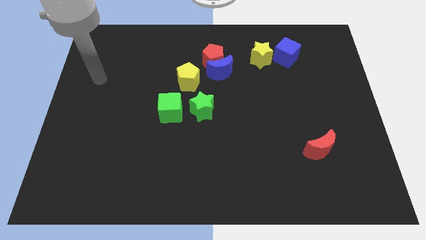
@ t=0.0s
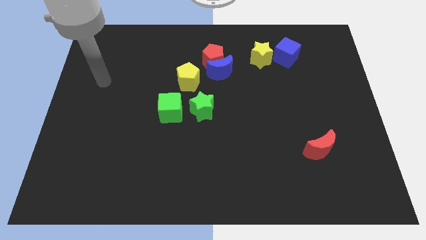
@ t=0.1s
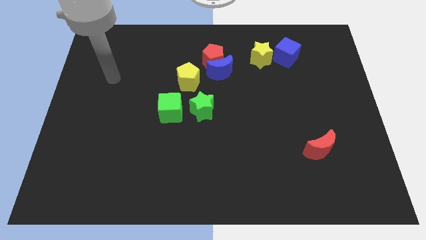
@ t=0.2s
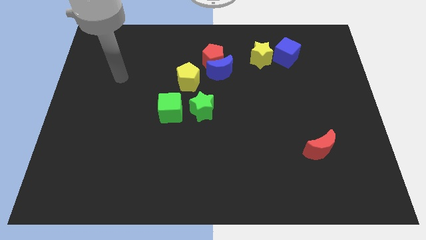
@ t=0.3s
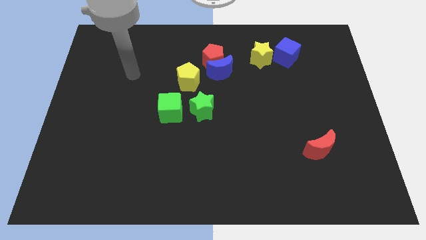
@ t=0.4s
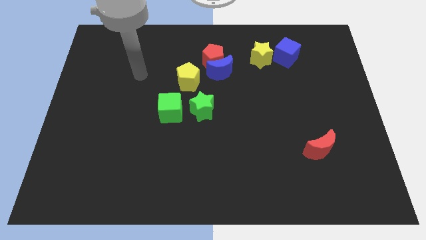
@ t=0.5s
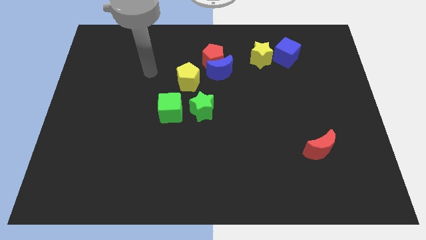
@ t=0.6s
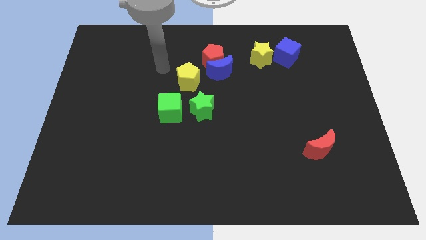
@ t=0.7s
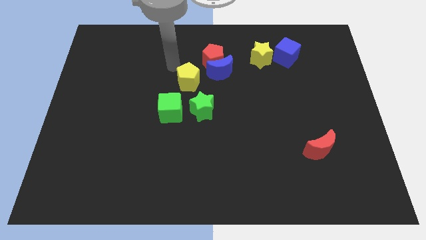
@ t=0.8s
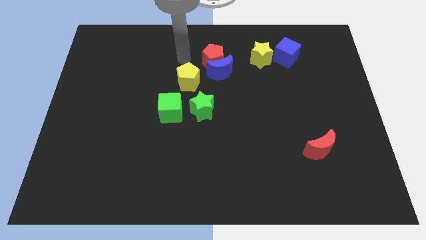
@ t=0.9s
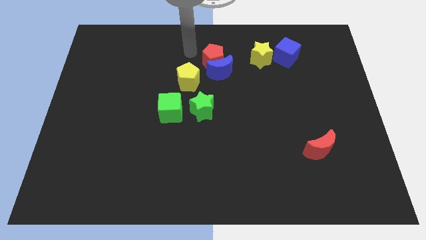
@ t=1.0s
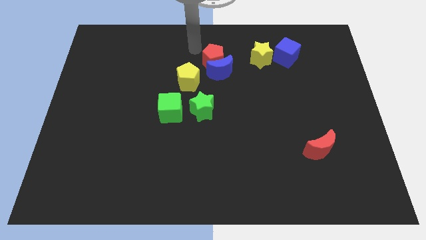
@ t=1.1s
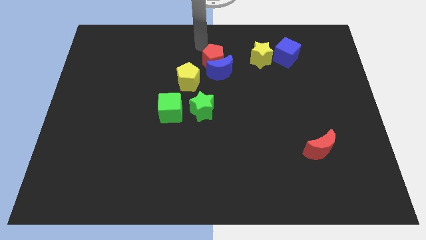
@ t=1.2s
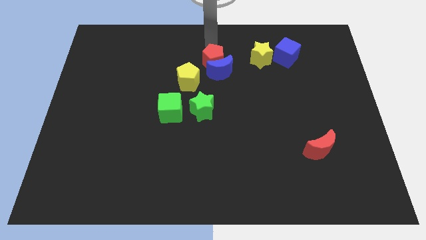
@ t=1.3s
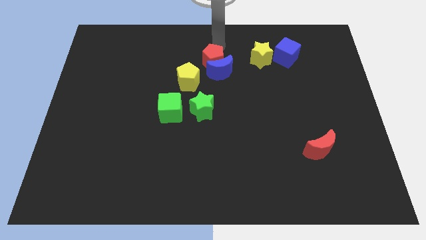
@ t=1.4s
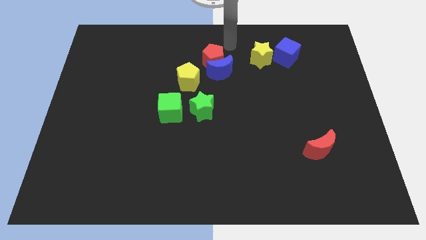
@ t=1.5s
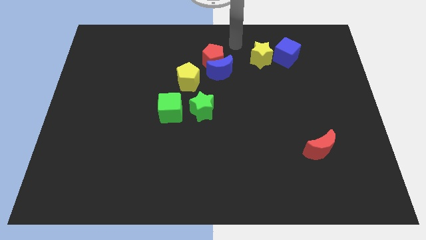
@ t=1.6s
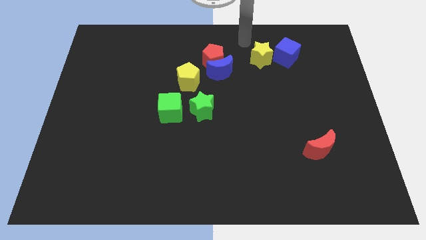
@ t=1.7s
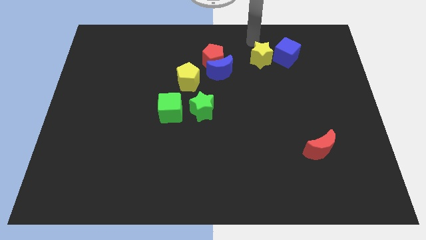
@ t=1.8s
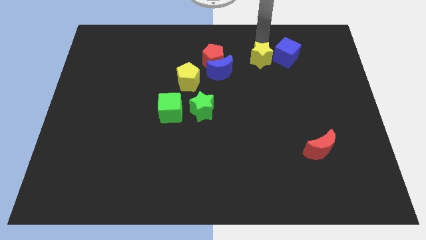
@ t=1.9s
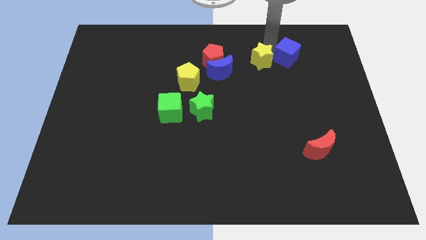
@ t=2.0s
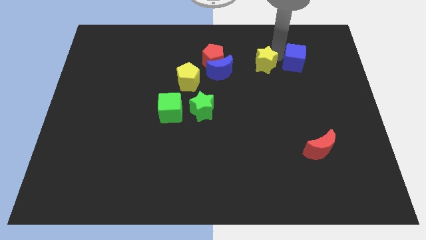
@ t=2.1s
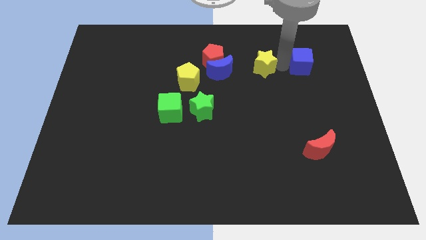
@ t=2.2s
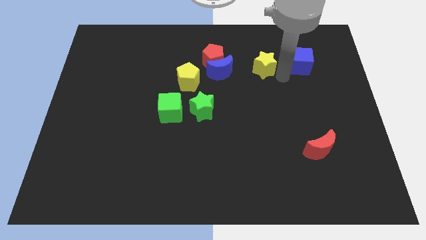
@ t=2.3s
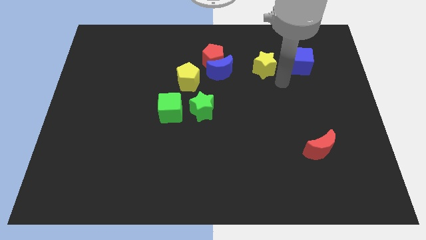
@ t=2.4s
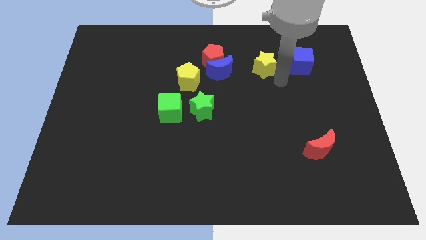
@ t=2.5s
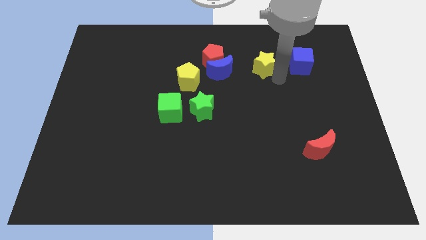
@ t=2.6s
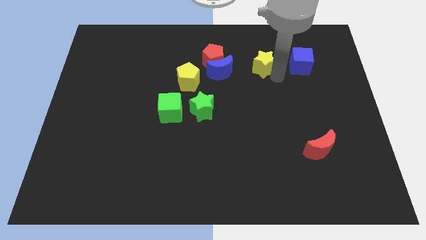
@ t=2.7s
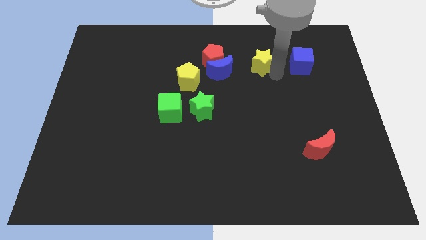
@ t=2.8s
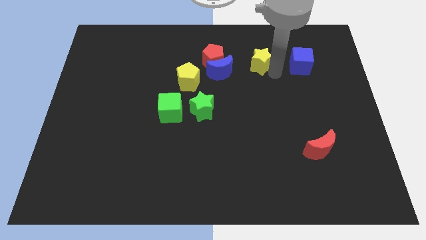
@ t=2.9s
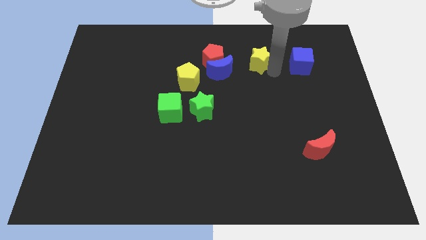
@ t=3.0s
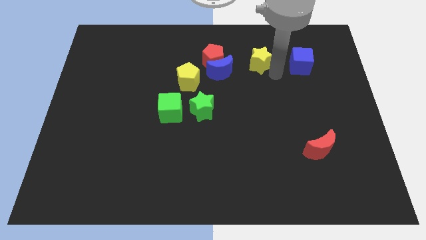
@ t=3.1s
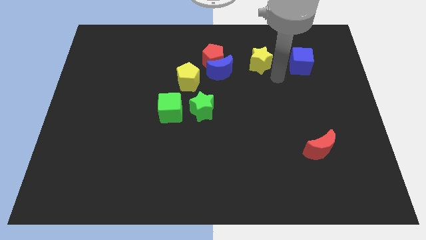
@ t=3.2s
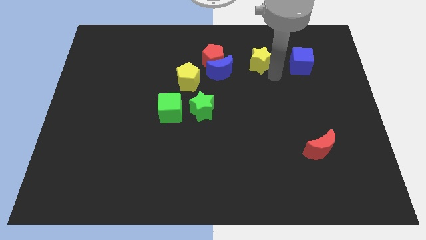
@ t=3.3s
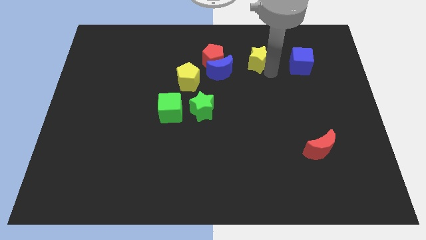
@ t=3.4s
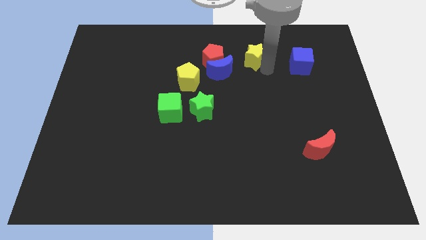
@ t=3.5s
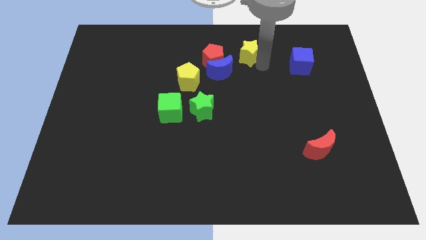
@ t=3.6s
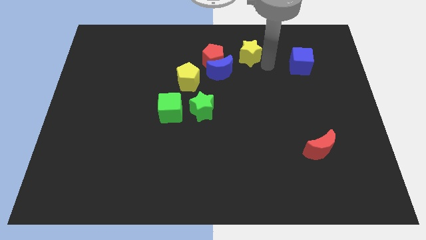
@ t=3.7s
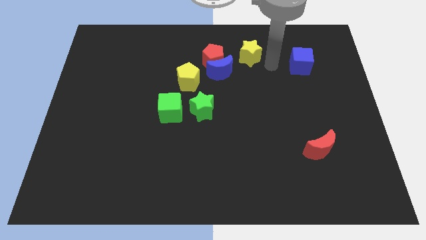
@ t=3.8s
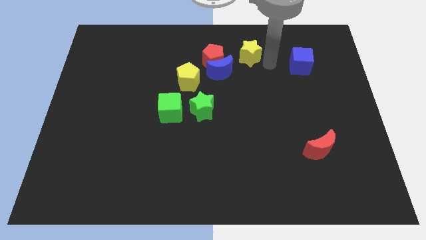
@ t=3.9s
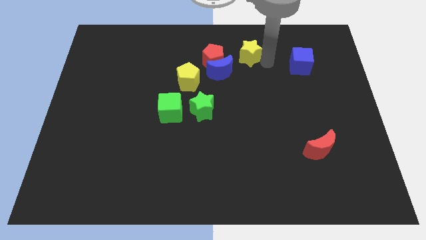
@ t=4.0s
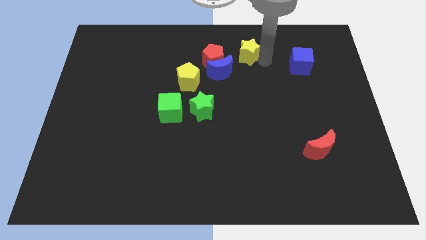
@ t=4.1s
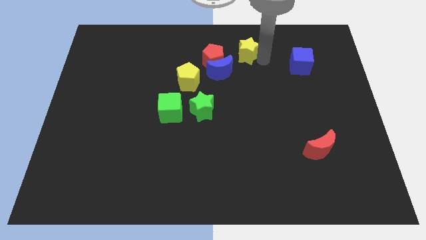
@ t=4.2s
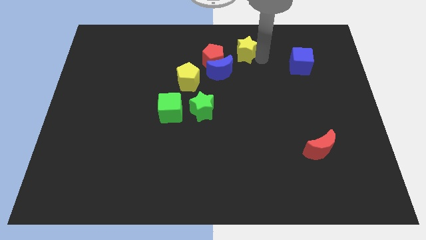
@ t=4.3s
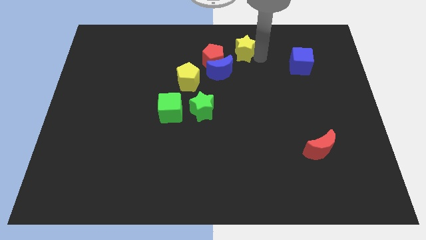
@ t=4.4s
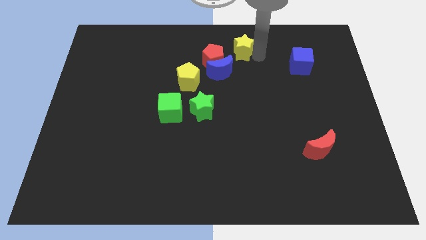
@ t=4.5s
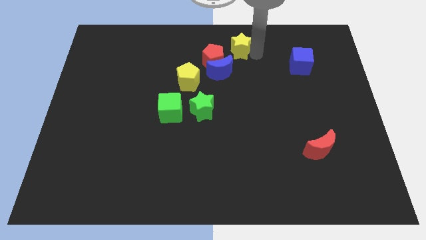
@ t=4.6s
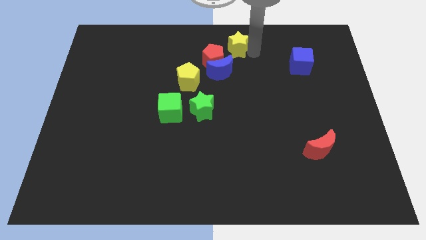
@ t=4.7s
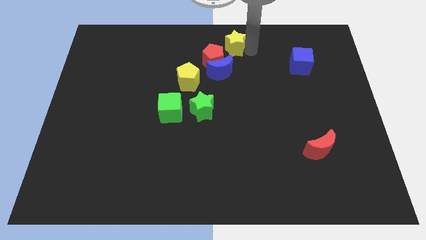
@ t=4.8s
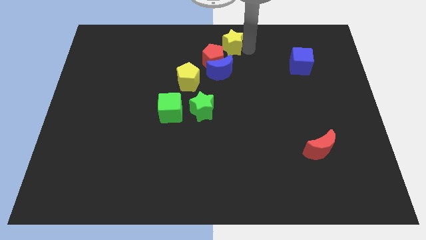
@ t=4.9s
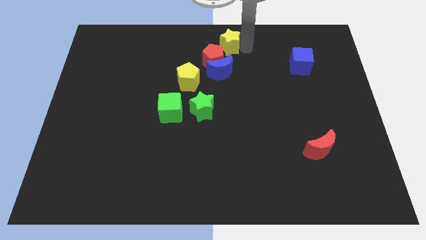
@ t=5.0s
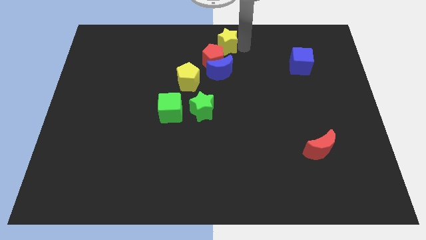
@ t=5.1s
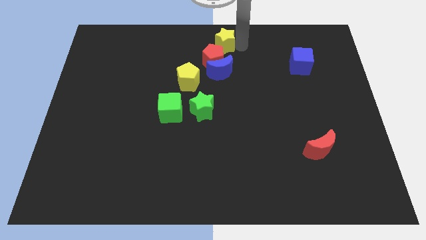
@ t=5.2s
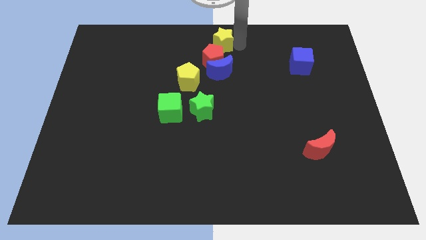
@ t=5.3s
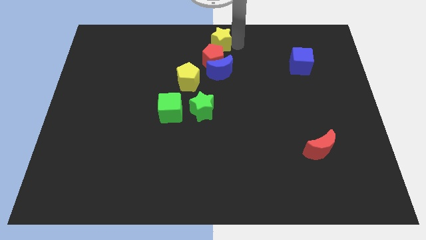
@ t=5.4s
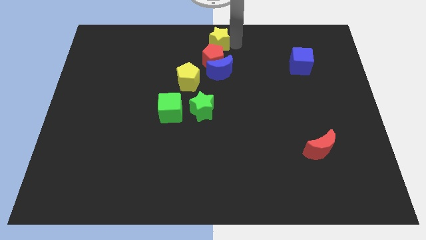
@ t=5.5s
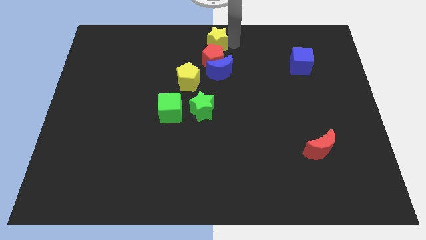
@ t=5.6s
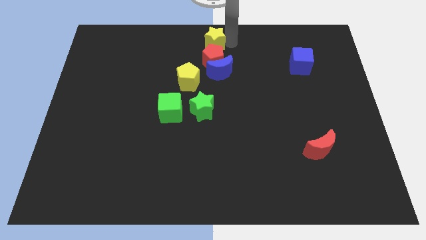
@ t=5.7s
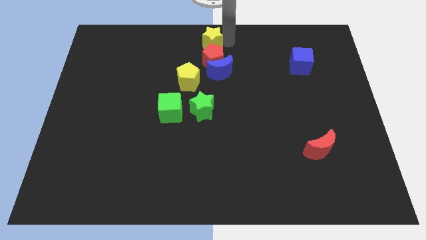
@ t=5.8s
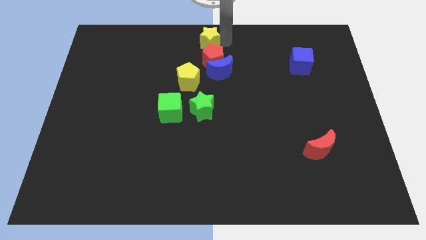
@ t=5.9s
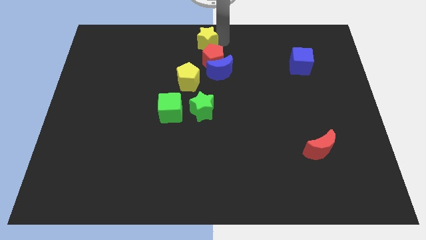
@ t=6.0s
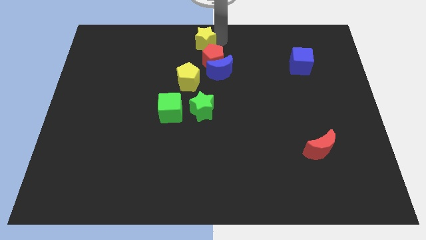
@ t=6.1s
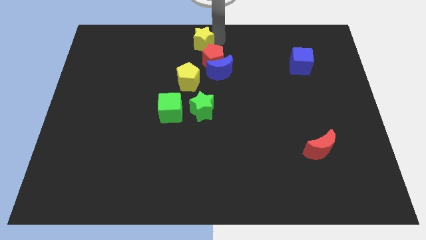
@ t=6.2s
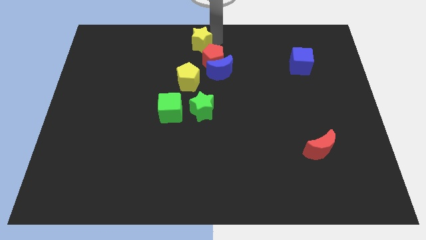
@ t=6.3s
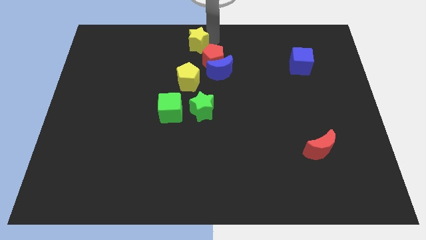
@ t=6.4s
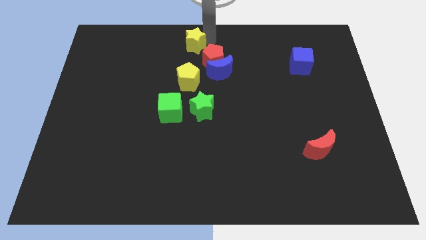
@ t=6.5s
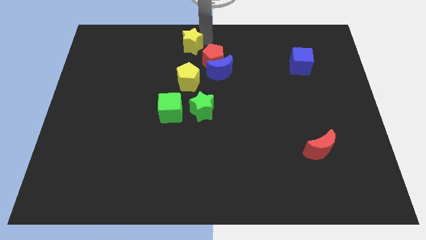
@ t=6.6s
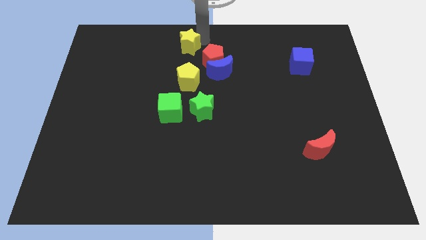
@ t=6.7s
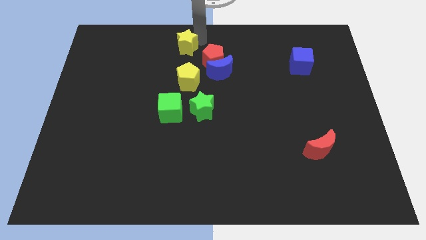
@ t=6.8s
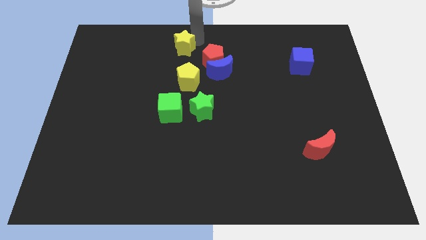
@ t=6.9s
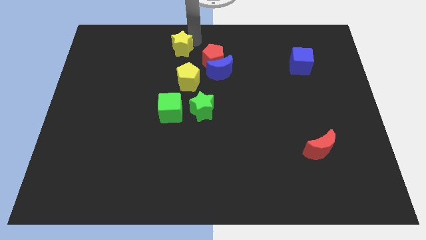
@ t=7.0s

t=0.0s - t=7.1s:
put the yellow star to the left side of the red pentagon
